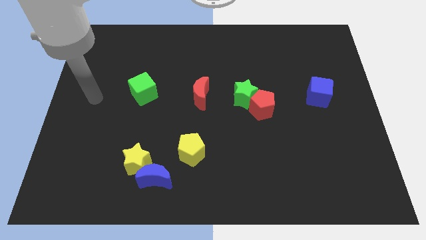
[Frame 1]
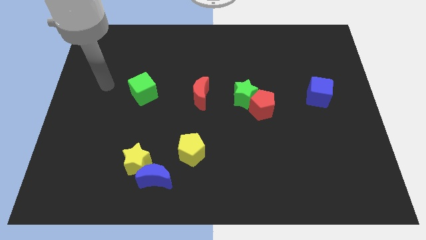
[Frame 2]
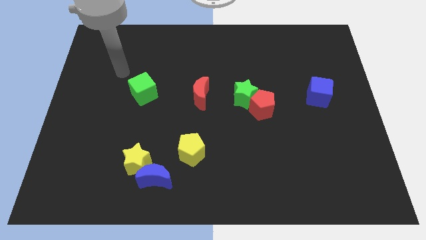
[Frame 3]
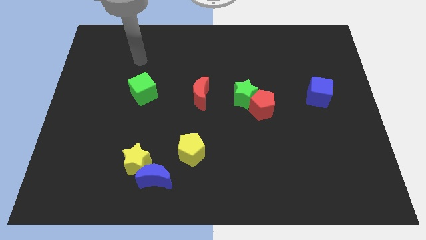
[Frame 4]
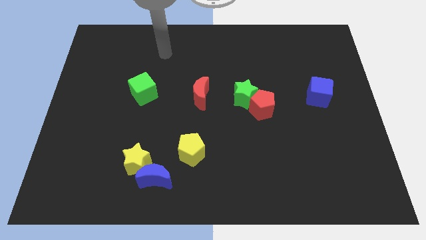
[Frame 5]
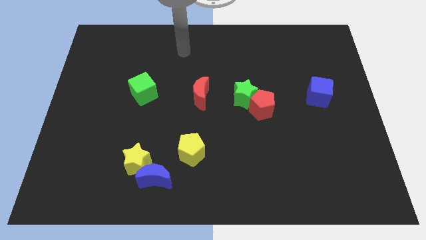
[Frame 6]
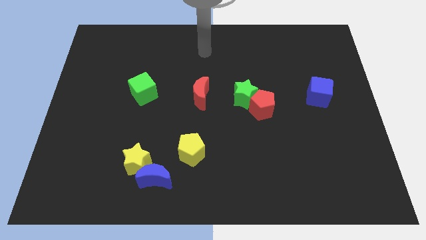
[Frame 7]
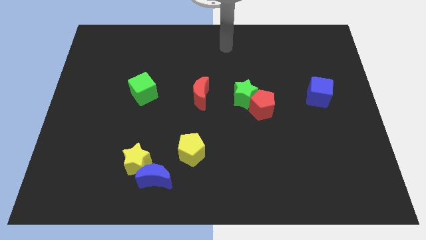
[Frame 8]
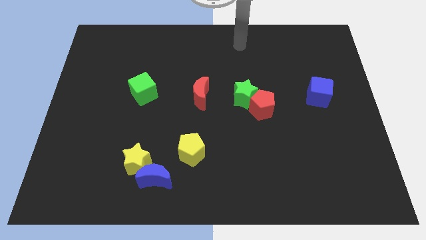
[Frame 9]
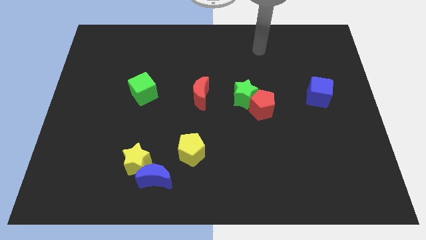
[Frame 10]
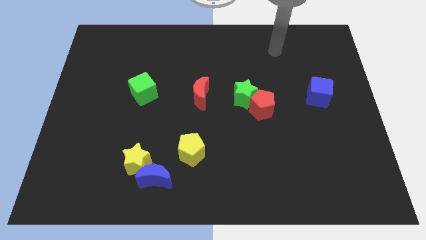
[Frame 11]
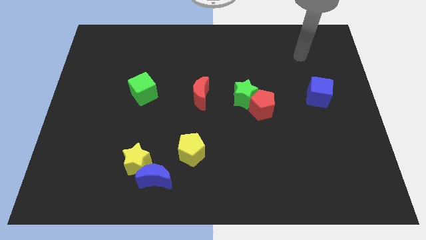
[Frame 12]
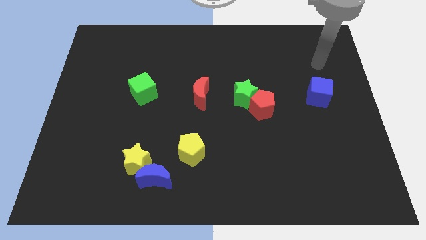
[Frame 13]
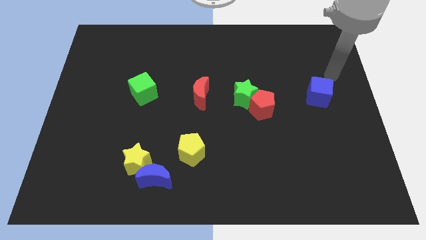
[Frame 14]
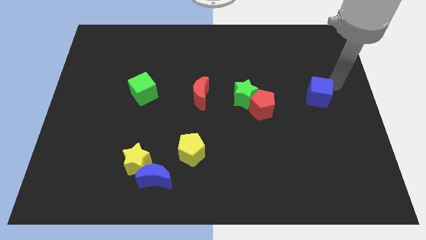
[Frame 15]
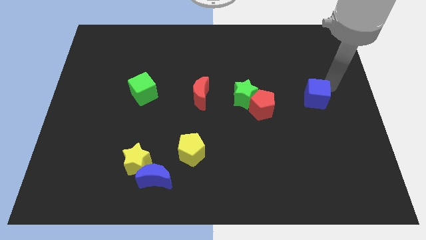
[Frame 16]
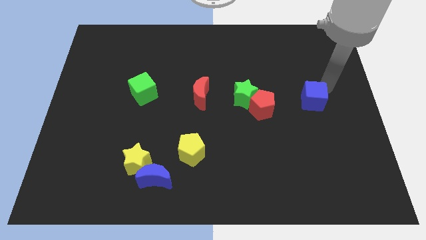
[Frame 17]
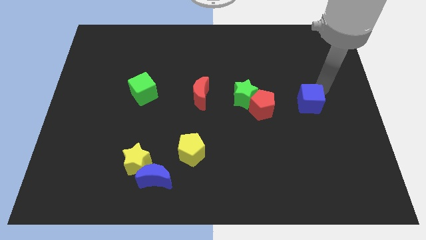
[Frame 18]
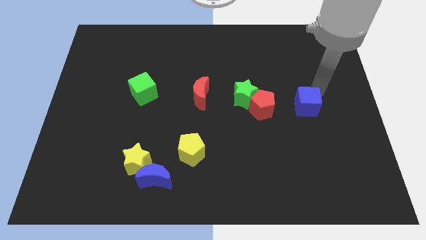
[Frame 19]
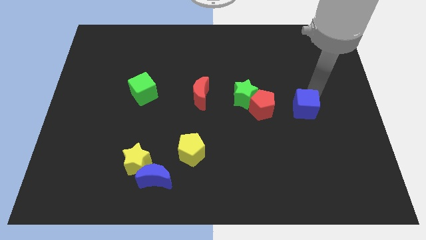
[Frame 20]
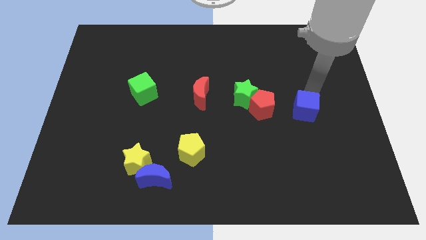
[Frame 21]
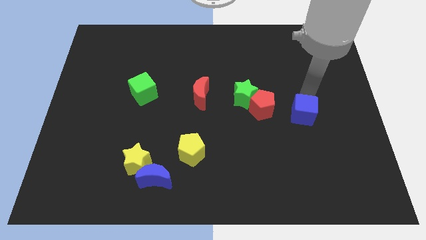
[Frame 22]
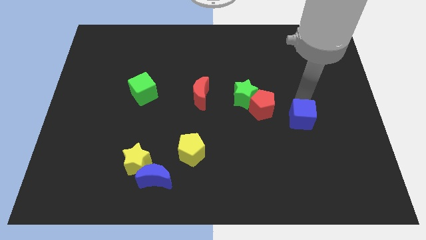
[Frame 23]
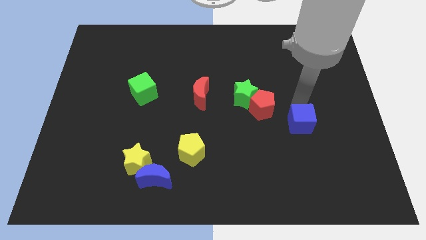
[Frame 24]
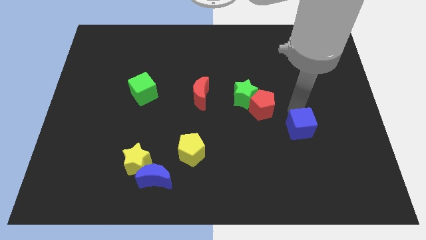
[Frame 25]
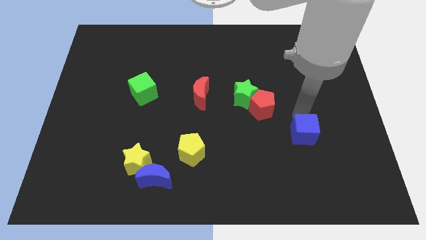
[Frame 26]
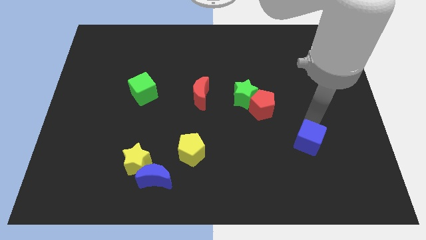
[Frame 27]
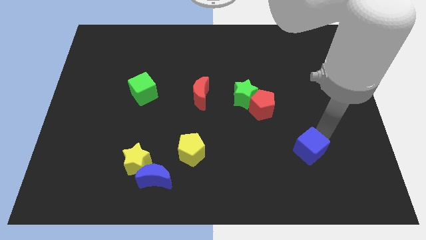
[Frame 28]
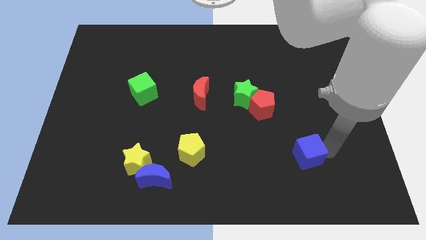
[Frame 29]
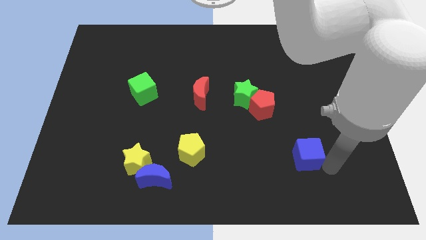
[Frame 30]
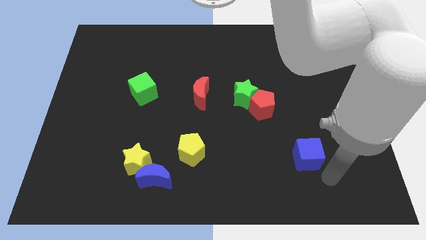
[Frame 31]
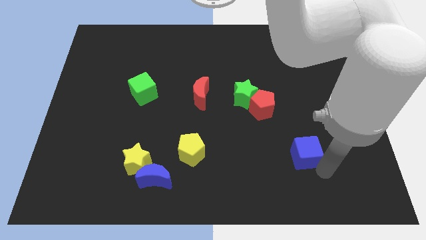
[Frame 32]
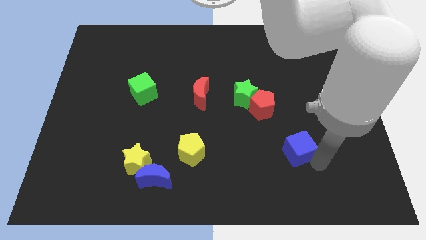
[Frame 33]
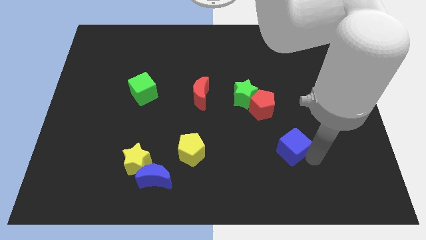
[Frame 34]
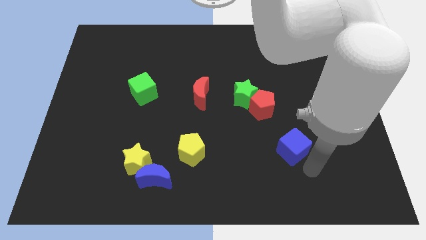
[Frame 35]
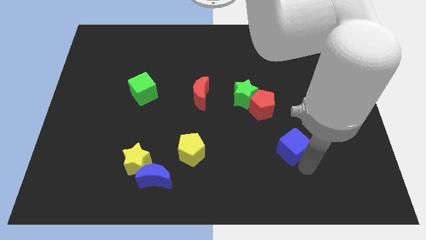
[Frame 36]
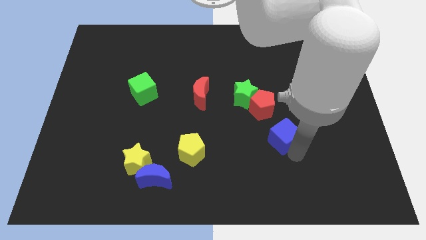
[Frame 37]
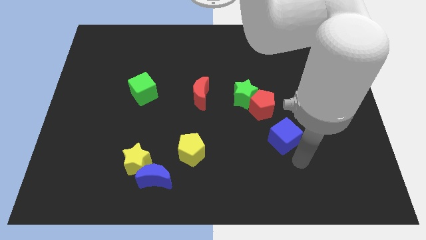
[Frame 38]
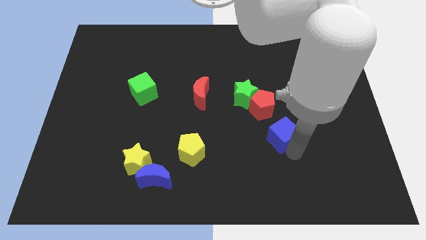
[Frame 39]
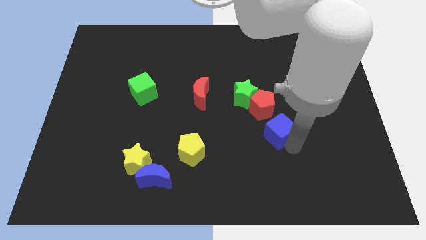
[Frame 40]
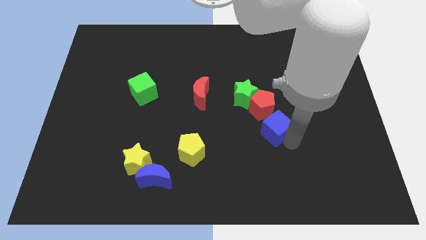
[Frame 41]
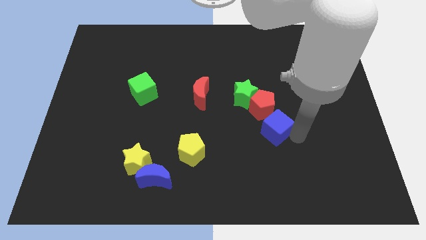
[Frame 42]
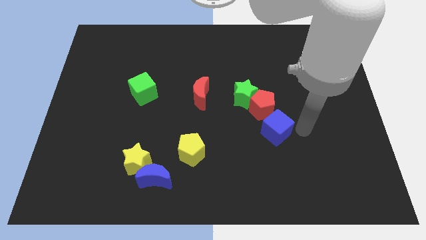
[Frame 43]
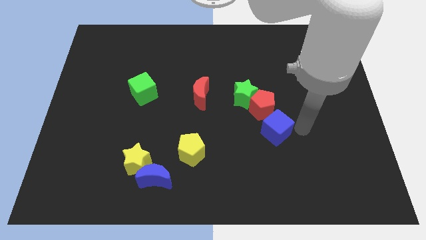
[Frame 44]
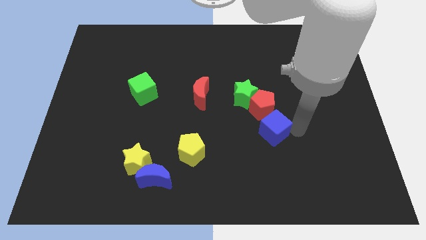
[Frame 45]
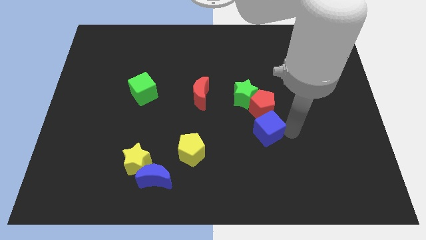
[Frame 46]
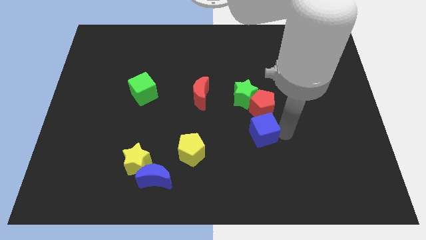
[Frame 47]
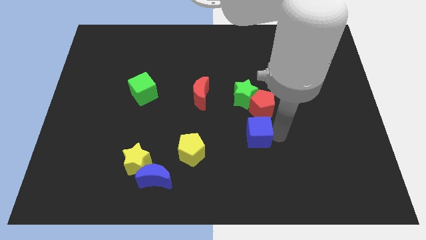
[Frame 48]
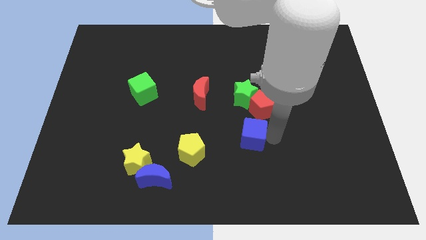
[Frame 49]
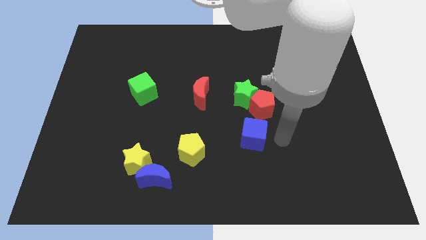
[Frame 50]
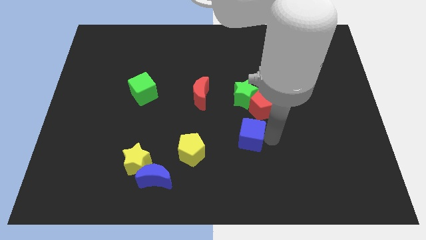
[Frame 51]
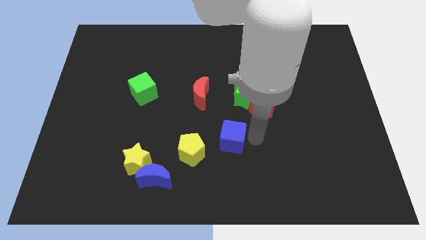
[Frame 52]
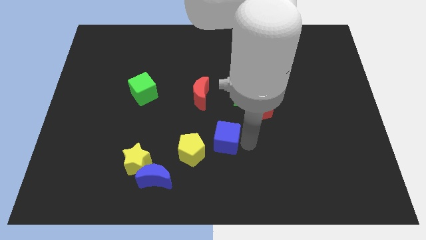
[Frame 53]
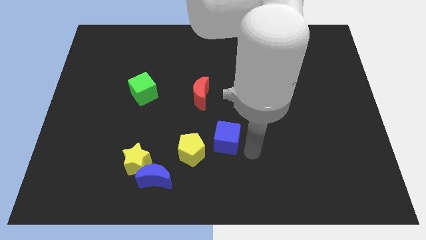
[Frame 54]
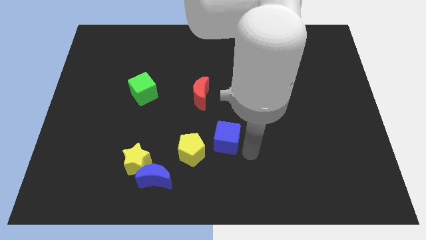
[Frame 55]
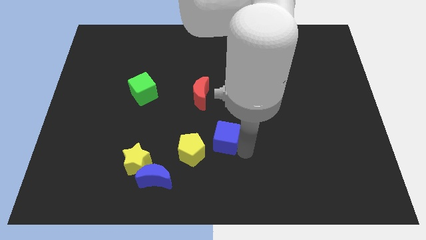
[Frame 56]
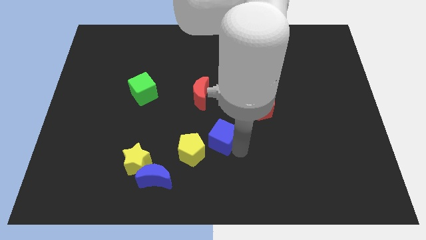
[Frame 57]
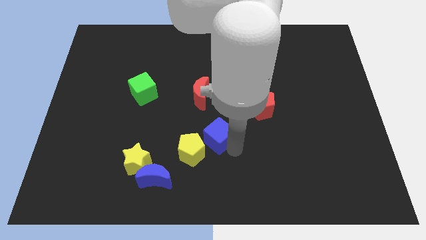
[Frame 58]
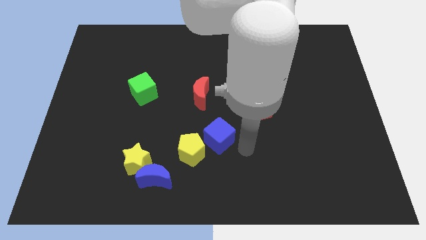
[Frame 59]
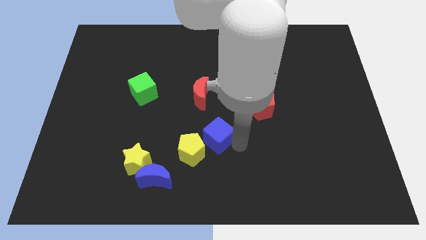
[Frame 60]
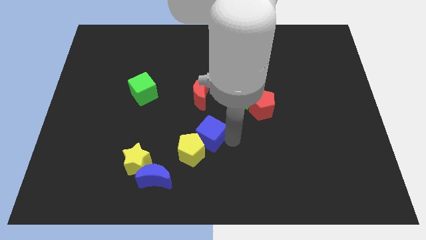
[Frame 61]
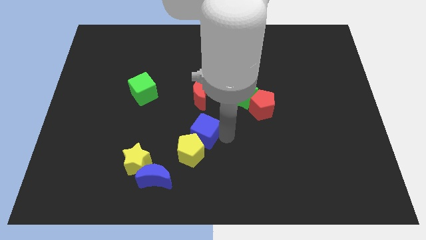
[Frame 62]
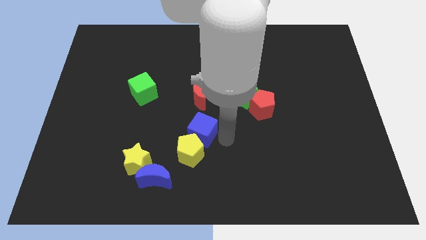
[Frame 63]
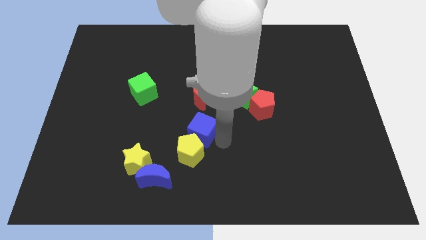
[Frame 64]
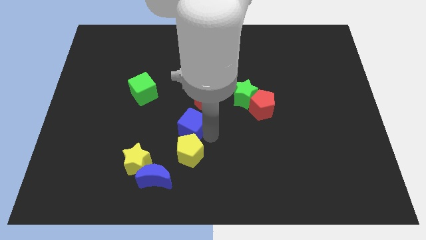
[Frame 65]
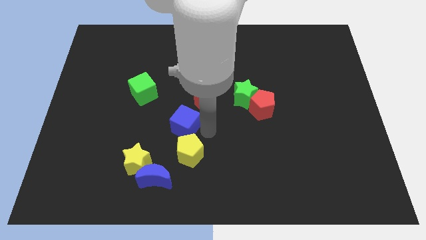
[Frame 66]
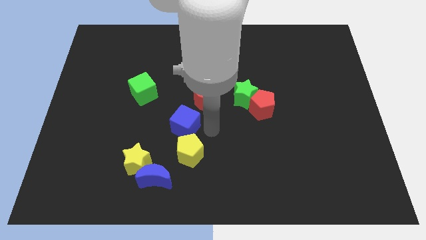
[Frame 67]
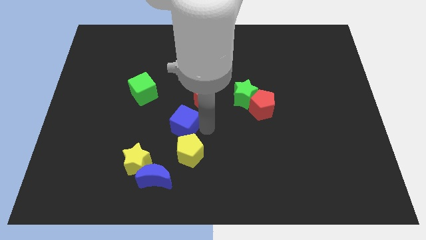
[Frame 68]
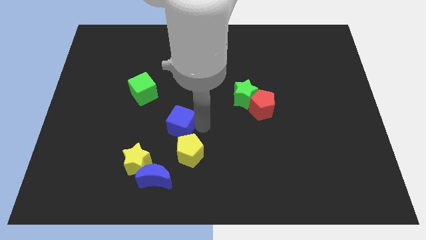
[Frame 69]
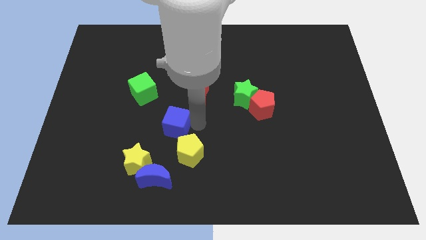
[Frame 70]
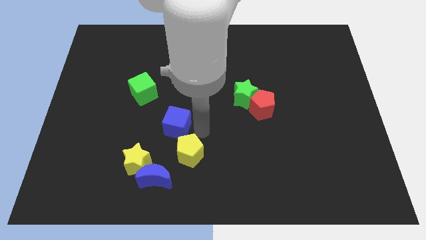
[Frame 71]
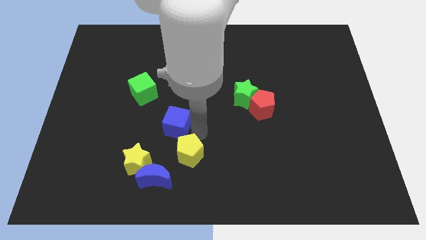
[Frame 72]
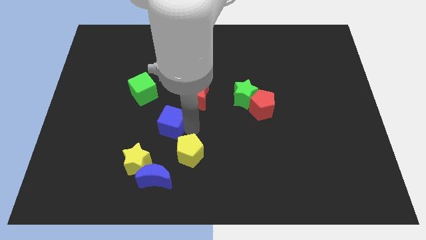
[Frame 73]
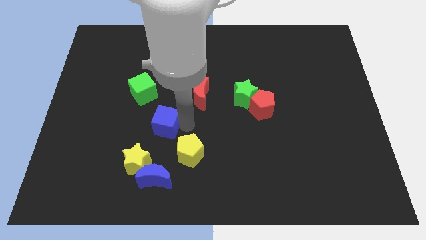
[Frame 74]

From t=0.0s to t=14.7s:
slide the blue cube to the top side of the yellow star
